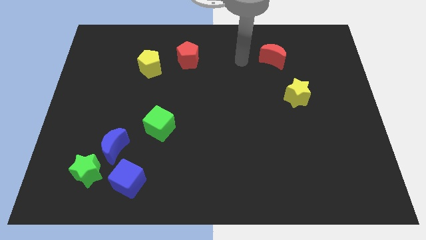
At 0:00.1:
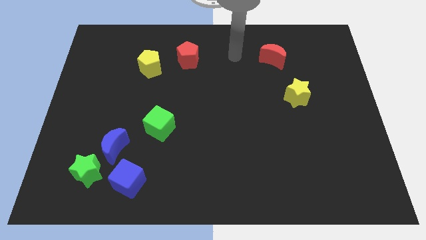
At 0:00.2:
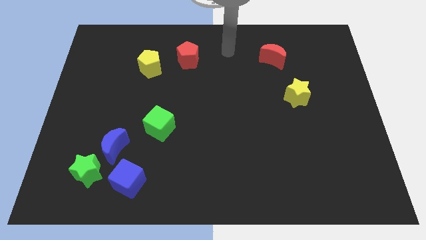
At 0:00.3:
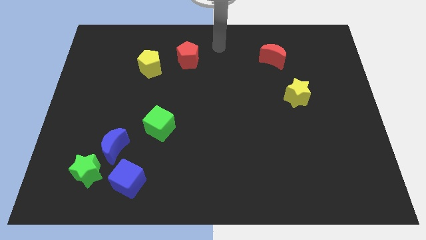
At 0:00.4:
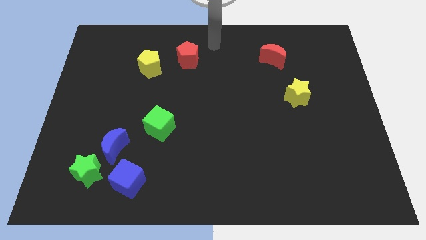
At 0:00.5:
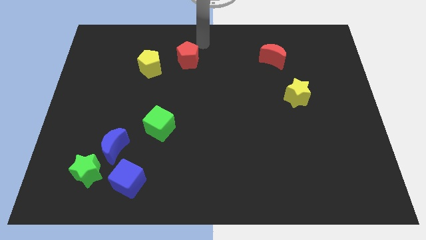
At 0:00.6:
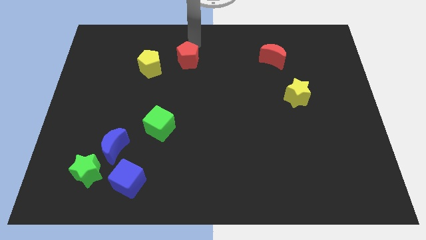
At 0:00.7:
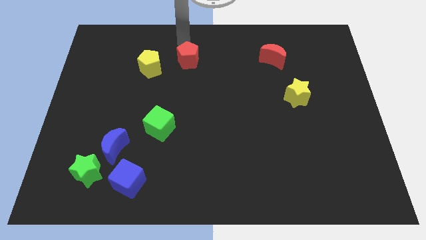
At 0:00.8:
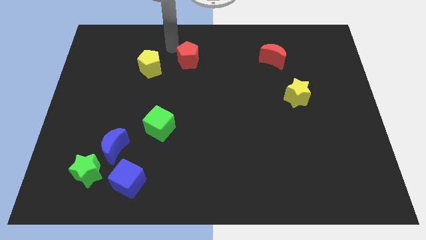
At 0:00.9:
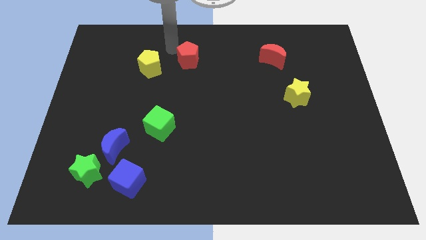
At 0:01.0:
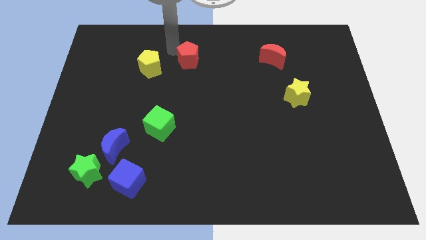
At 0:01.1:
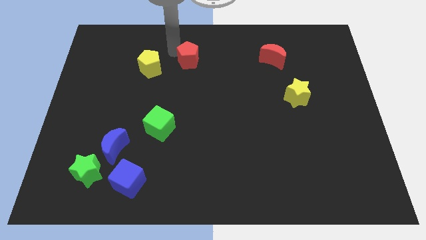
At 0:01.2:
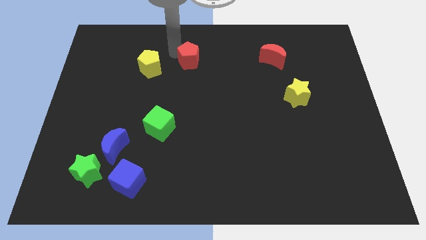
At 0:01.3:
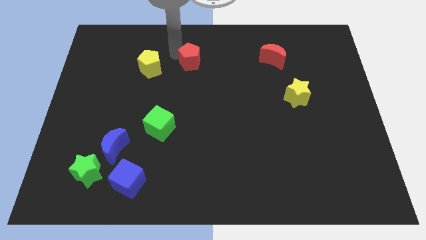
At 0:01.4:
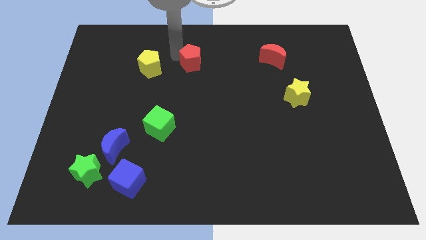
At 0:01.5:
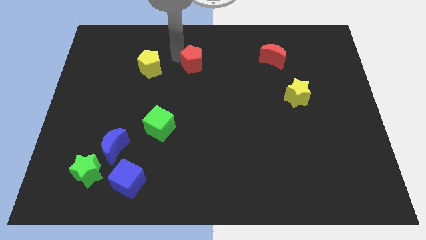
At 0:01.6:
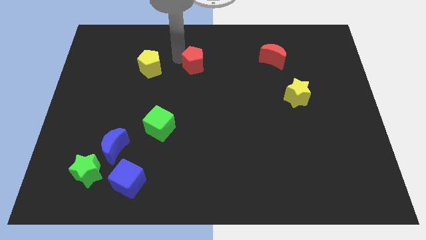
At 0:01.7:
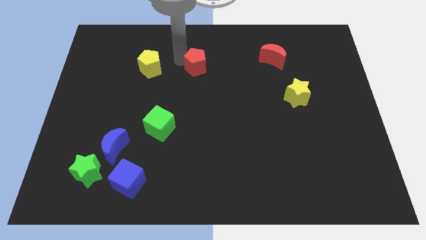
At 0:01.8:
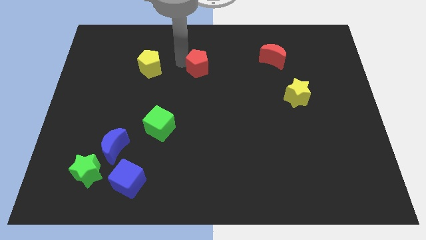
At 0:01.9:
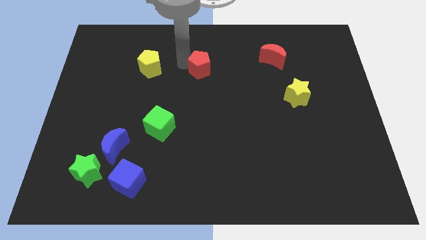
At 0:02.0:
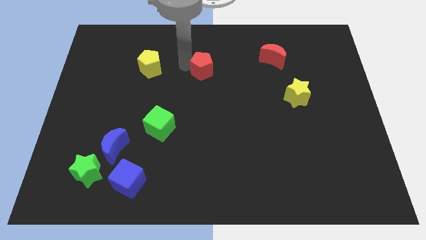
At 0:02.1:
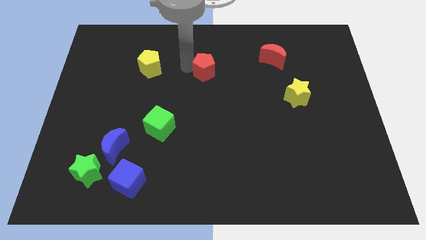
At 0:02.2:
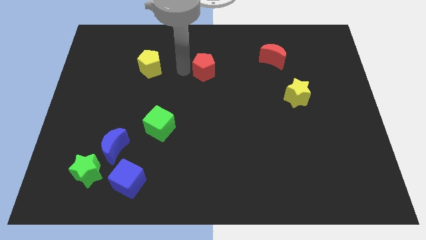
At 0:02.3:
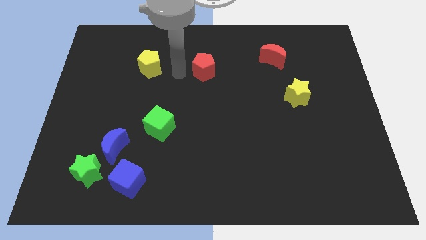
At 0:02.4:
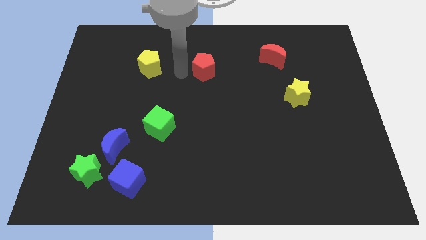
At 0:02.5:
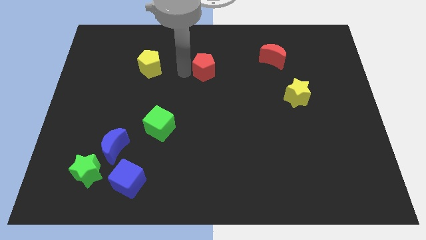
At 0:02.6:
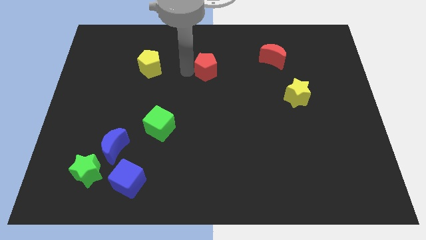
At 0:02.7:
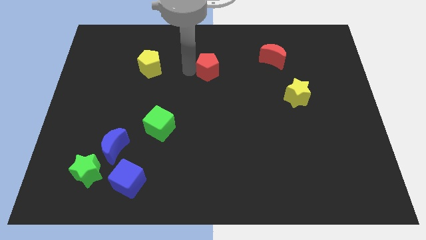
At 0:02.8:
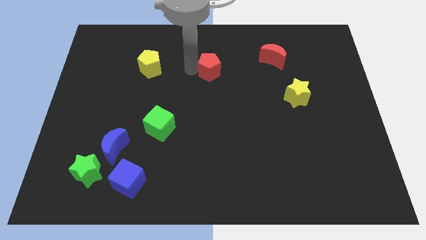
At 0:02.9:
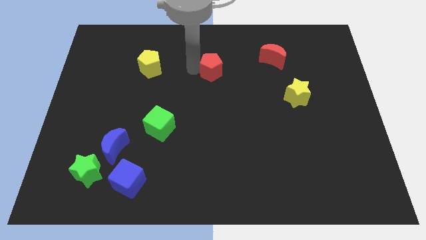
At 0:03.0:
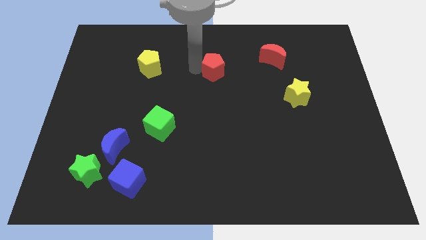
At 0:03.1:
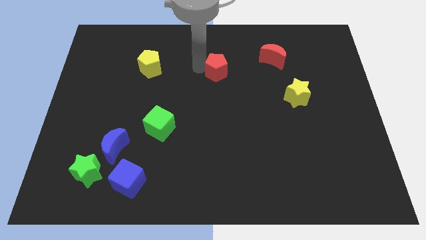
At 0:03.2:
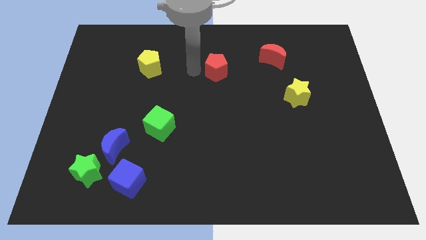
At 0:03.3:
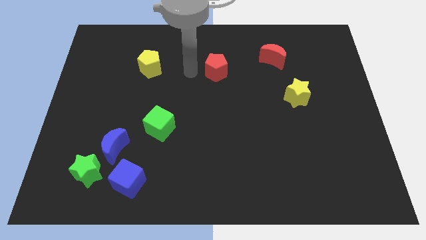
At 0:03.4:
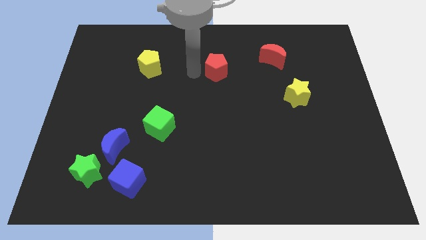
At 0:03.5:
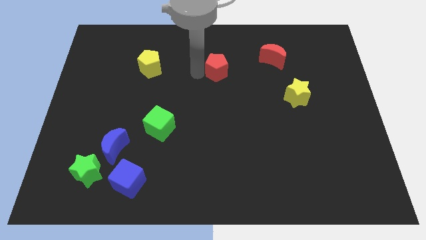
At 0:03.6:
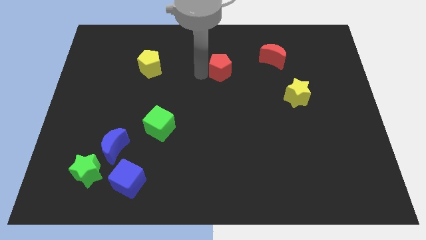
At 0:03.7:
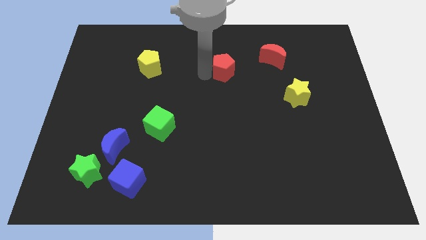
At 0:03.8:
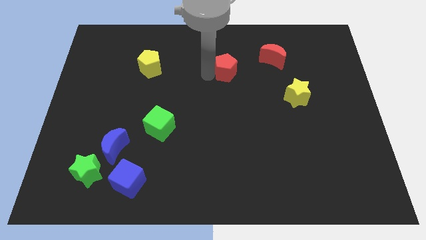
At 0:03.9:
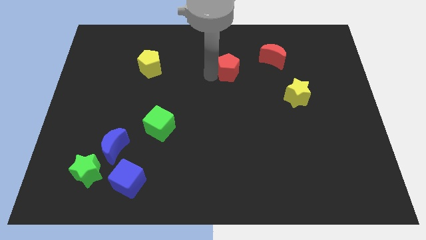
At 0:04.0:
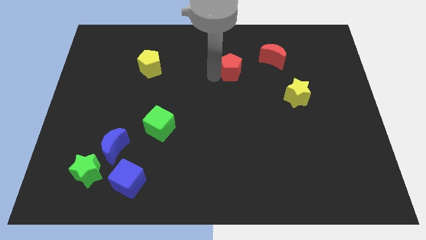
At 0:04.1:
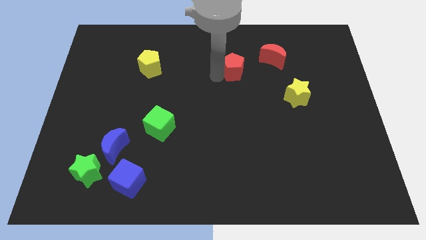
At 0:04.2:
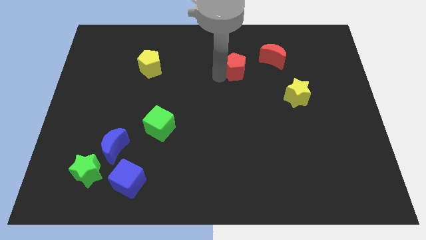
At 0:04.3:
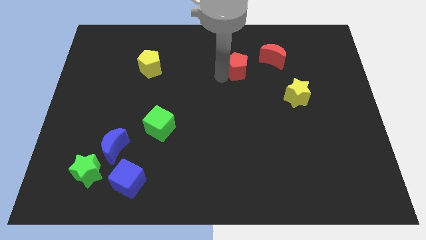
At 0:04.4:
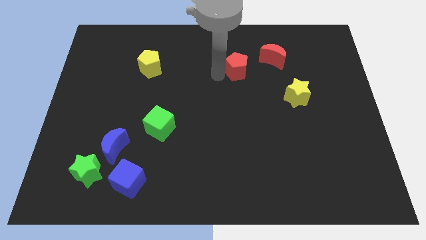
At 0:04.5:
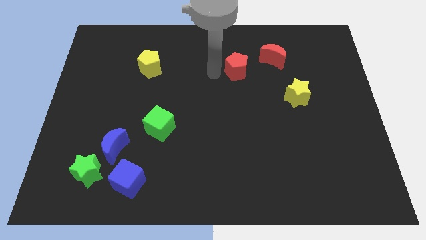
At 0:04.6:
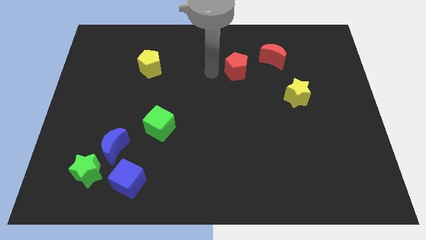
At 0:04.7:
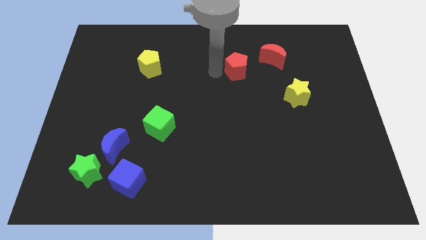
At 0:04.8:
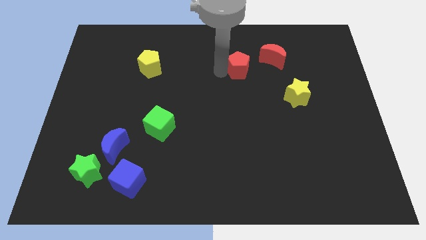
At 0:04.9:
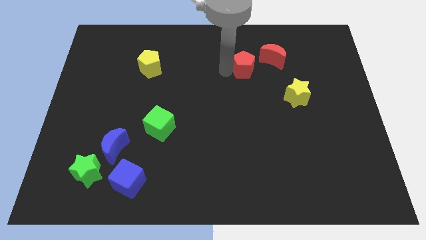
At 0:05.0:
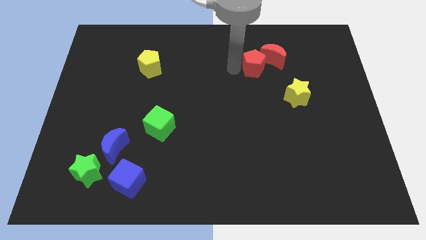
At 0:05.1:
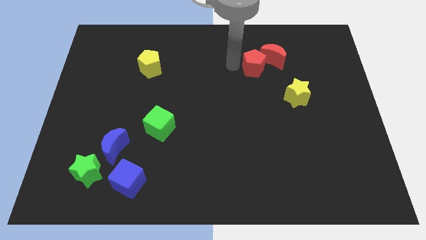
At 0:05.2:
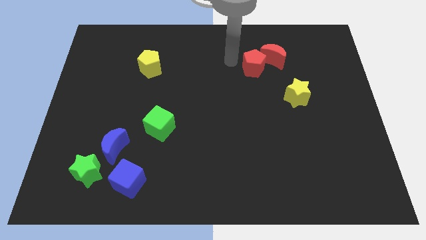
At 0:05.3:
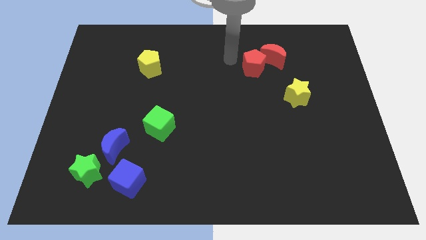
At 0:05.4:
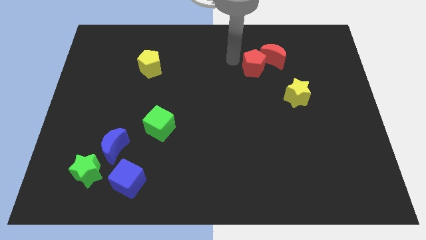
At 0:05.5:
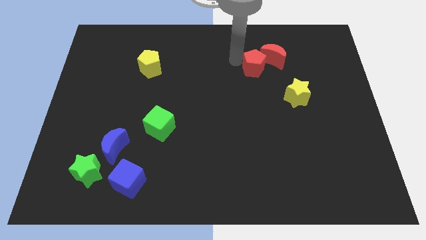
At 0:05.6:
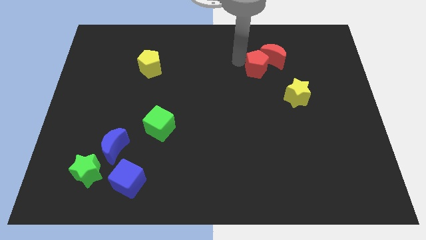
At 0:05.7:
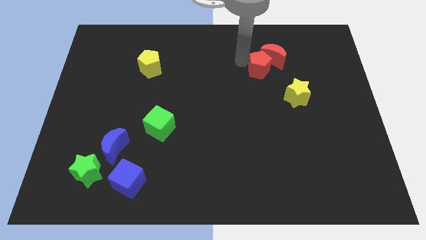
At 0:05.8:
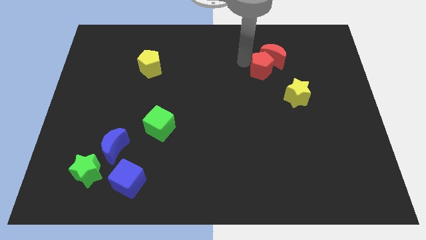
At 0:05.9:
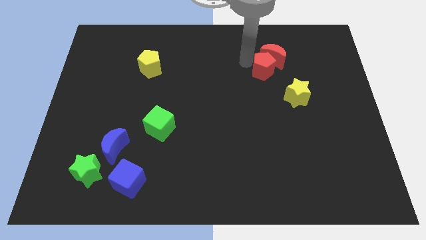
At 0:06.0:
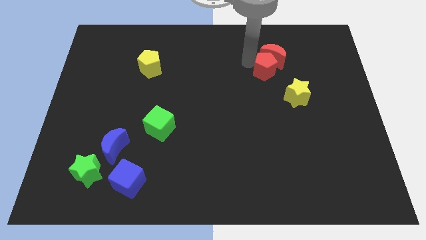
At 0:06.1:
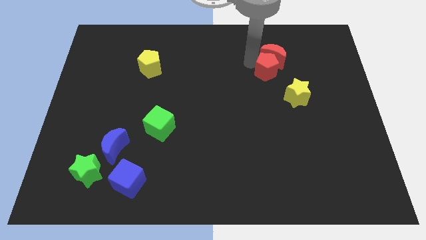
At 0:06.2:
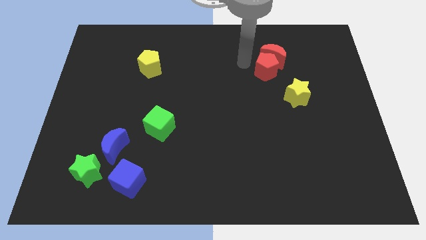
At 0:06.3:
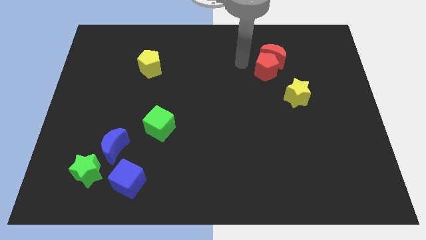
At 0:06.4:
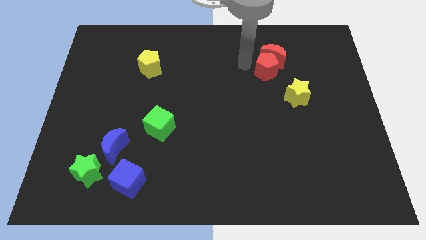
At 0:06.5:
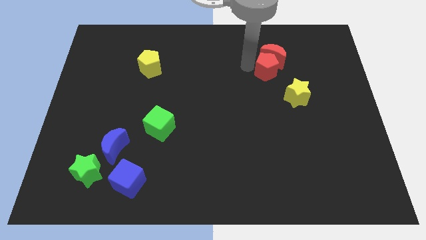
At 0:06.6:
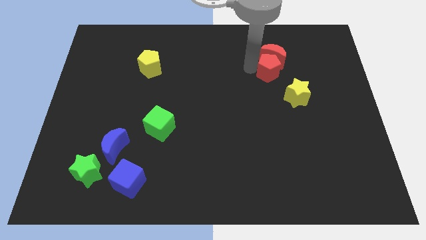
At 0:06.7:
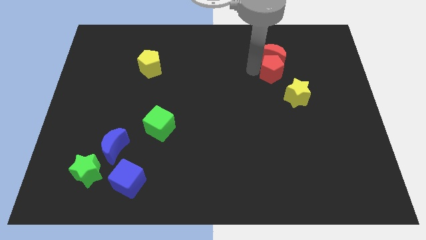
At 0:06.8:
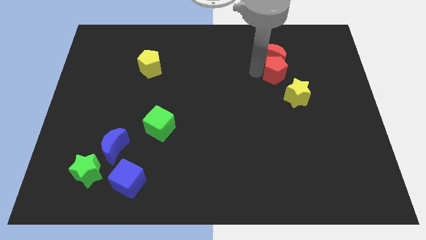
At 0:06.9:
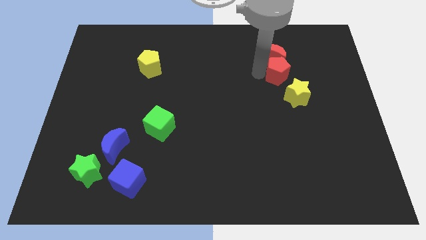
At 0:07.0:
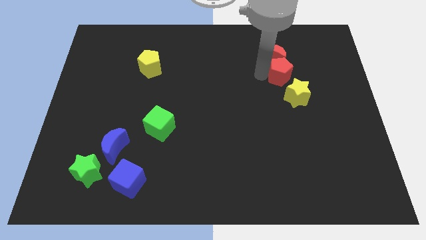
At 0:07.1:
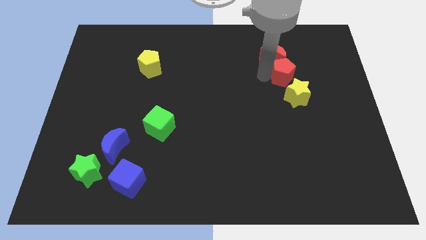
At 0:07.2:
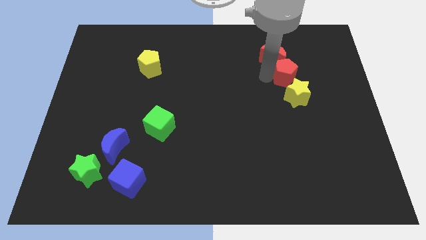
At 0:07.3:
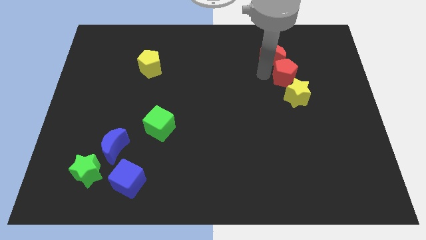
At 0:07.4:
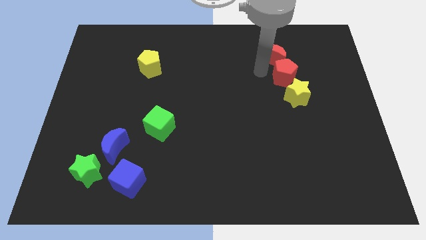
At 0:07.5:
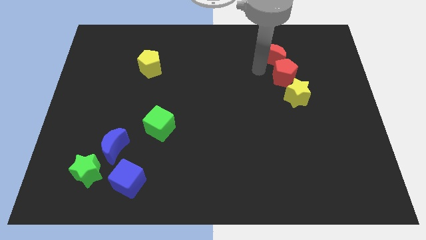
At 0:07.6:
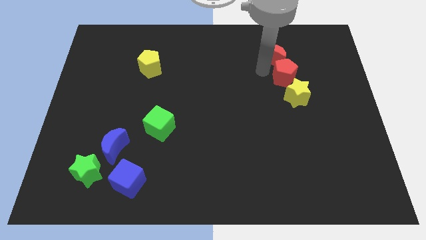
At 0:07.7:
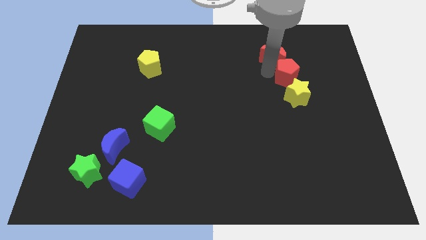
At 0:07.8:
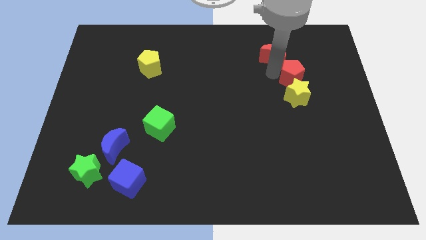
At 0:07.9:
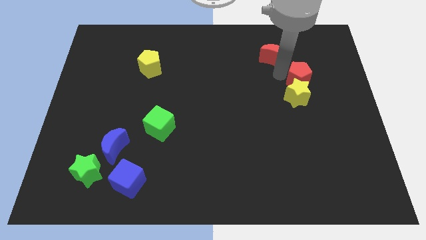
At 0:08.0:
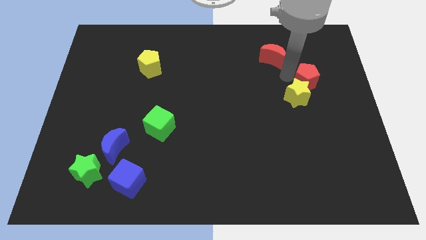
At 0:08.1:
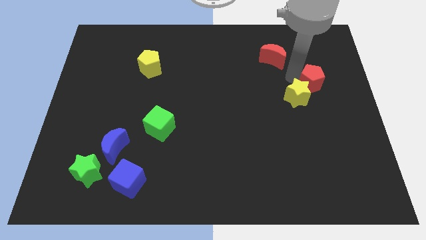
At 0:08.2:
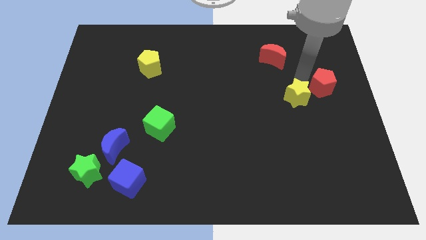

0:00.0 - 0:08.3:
slide the red pentagon to the right side of the board
